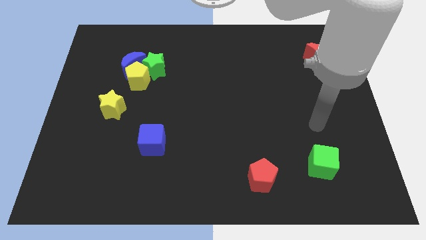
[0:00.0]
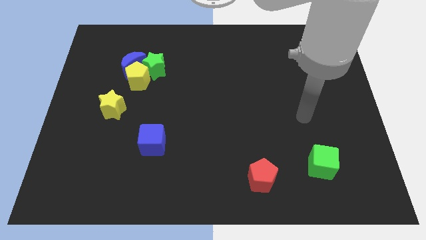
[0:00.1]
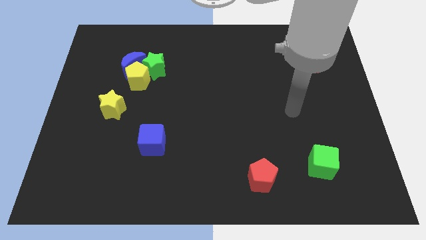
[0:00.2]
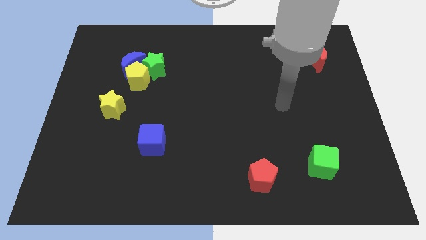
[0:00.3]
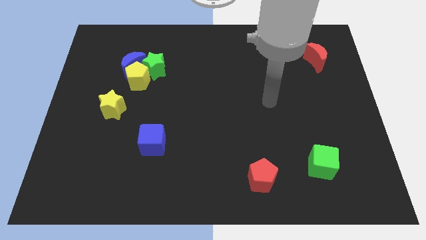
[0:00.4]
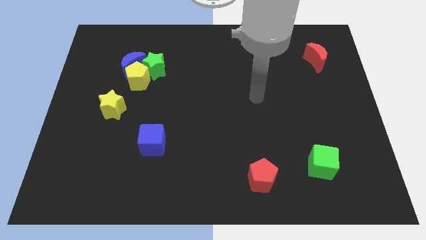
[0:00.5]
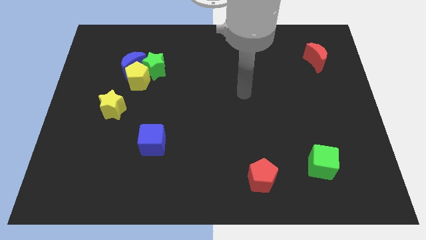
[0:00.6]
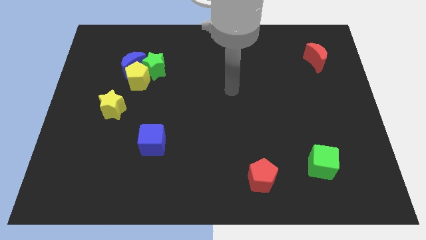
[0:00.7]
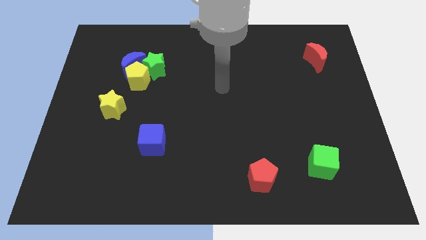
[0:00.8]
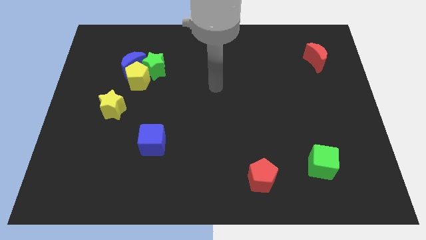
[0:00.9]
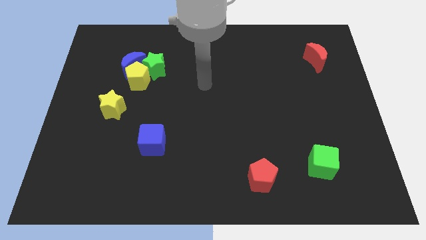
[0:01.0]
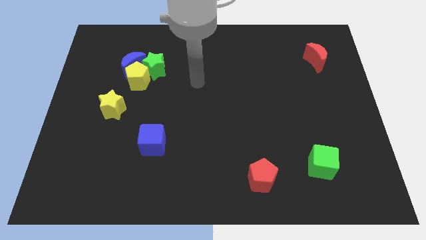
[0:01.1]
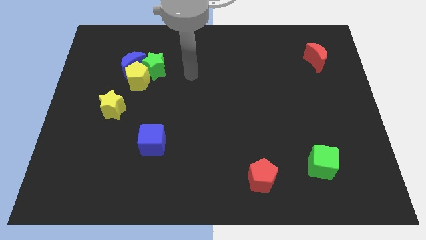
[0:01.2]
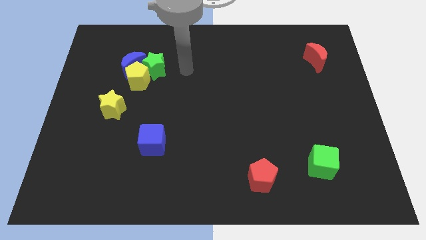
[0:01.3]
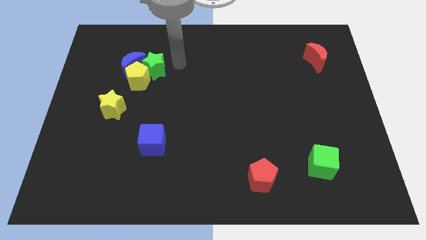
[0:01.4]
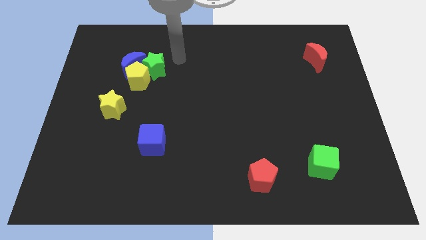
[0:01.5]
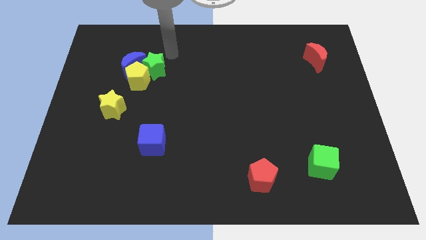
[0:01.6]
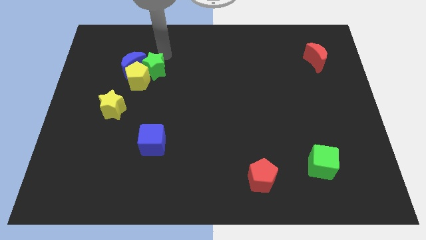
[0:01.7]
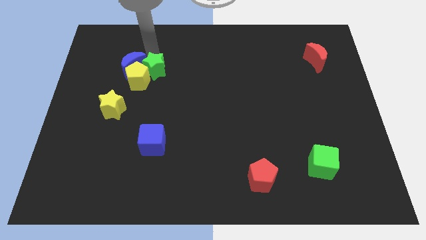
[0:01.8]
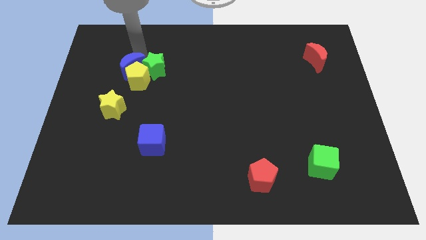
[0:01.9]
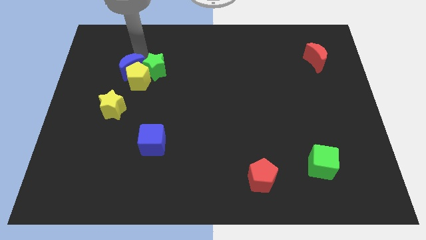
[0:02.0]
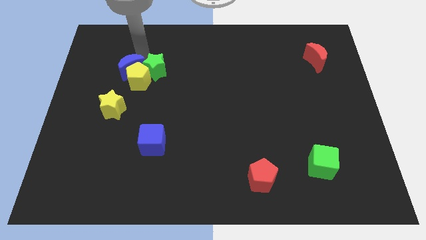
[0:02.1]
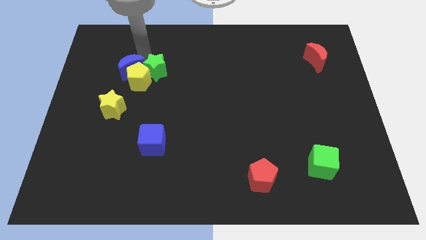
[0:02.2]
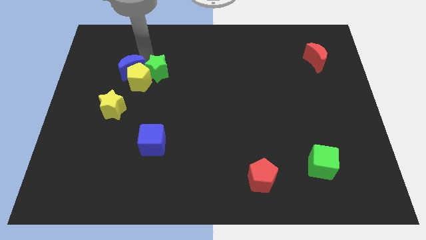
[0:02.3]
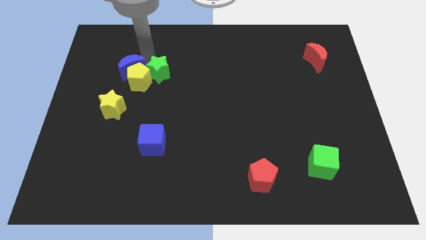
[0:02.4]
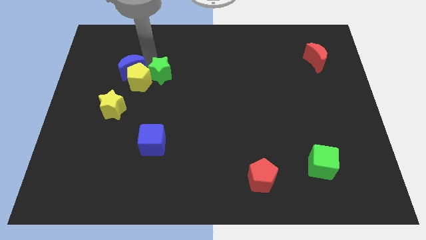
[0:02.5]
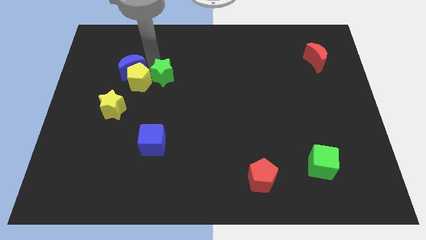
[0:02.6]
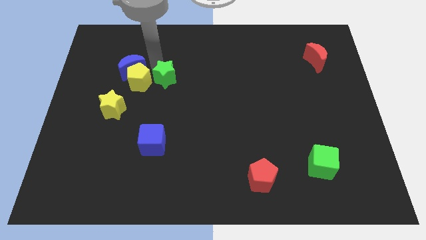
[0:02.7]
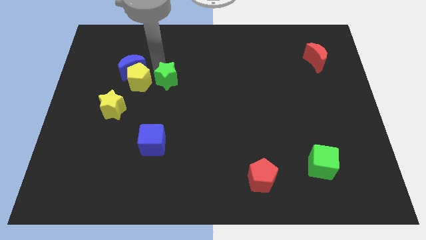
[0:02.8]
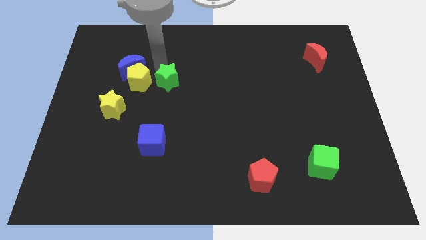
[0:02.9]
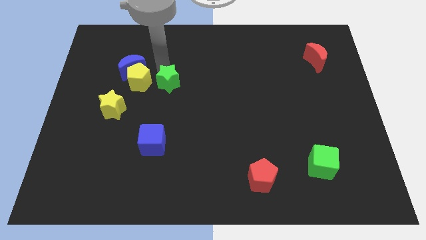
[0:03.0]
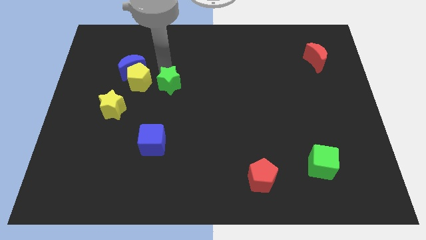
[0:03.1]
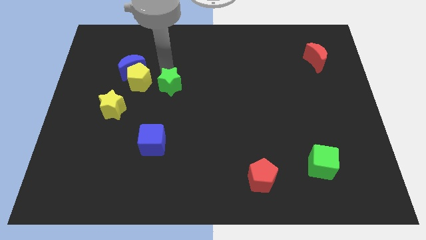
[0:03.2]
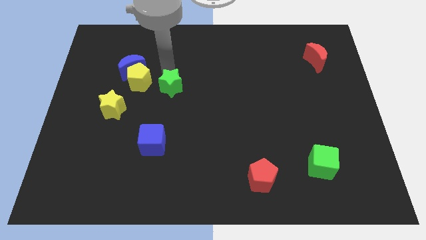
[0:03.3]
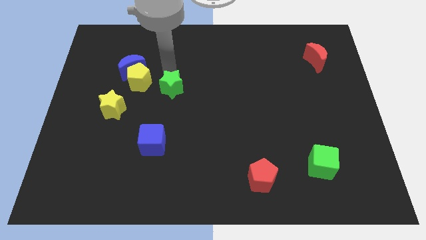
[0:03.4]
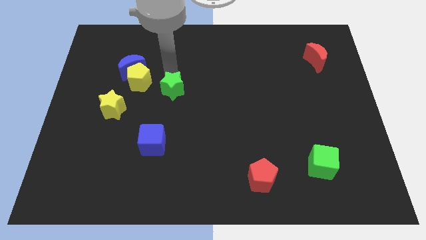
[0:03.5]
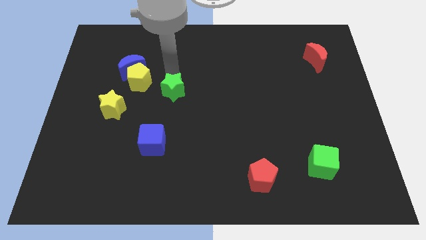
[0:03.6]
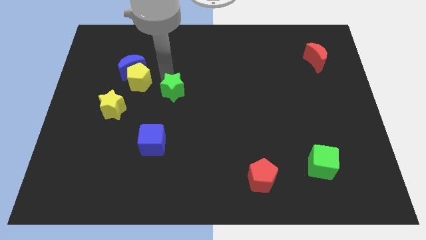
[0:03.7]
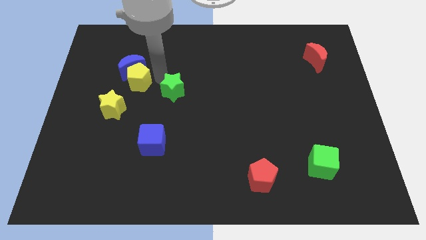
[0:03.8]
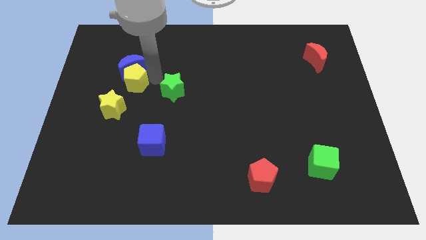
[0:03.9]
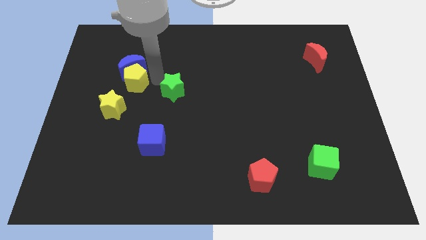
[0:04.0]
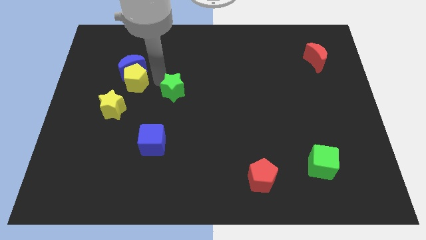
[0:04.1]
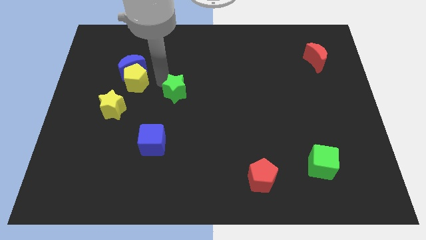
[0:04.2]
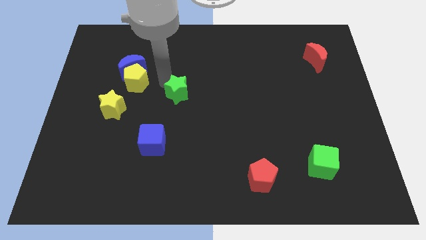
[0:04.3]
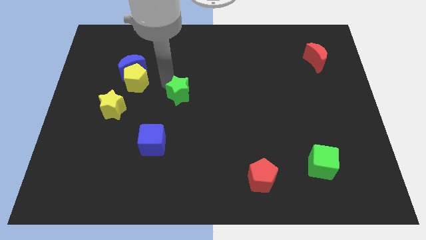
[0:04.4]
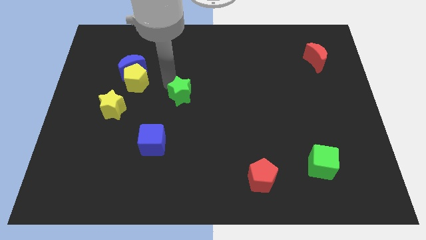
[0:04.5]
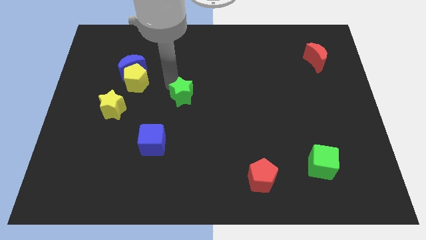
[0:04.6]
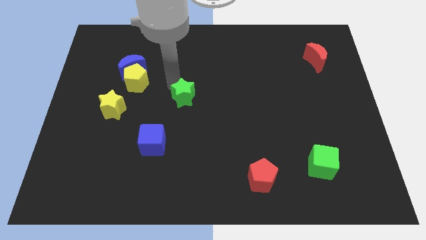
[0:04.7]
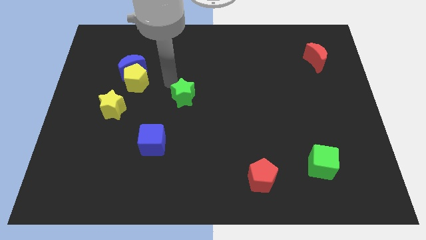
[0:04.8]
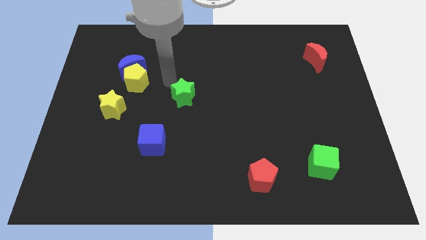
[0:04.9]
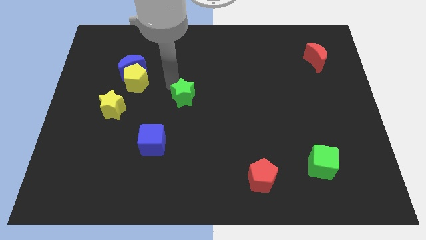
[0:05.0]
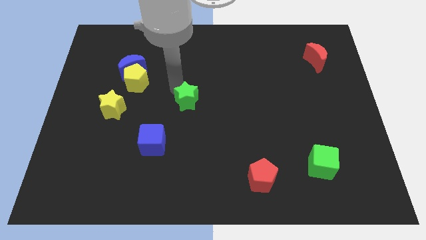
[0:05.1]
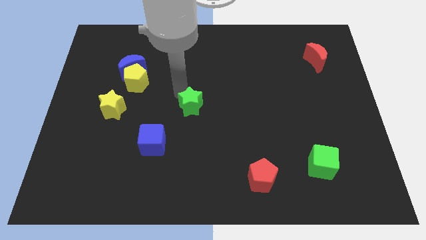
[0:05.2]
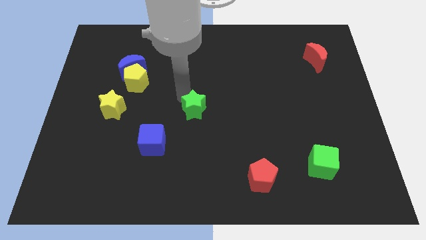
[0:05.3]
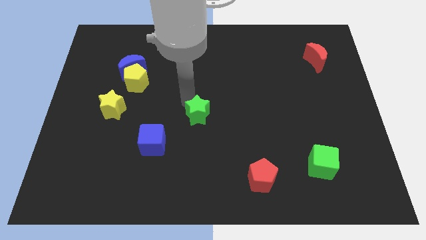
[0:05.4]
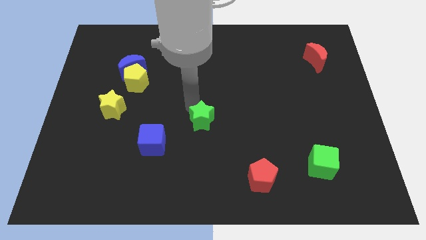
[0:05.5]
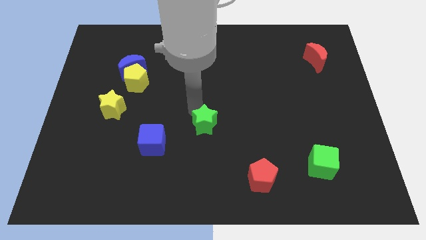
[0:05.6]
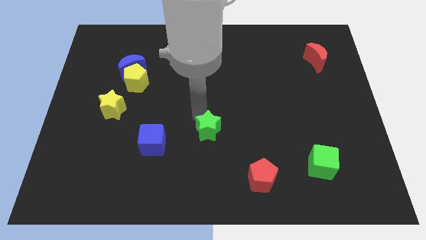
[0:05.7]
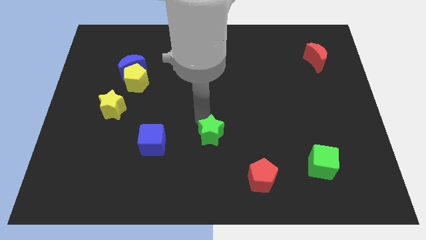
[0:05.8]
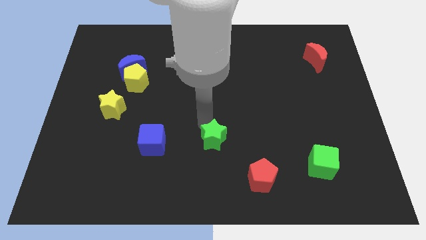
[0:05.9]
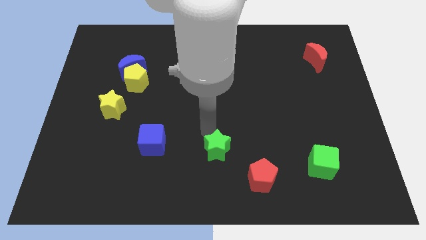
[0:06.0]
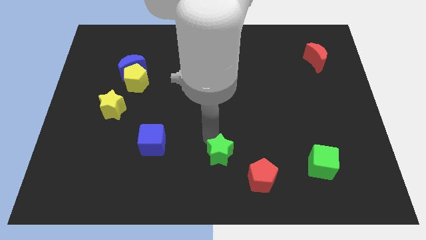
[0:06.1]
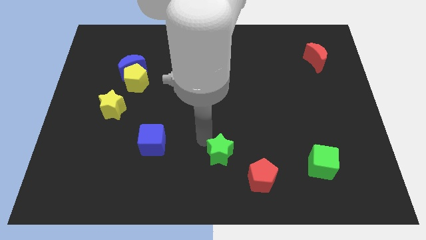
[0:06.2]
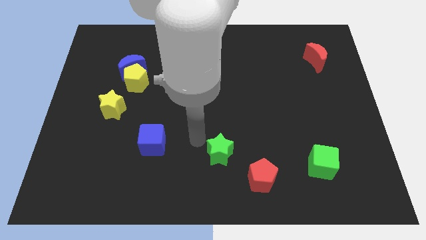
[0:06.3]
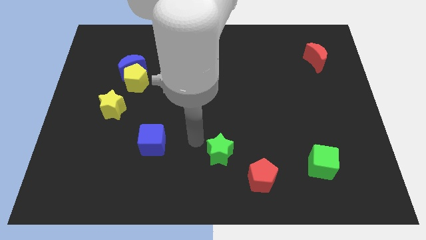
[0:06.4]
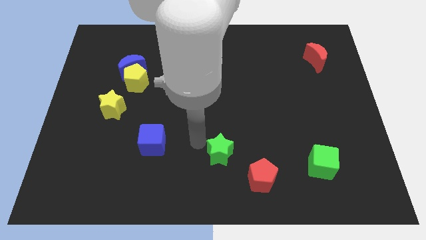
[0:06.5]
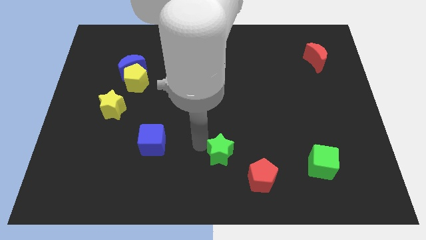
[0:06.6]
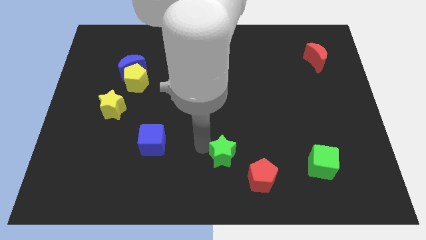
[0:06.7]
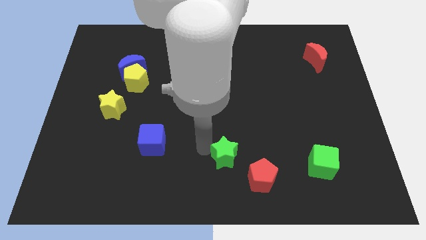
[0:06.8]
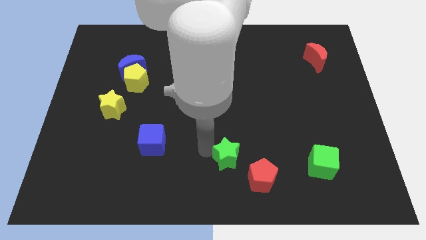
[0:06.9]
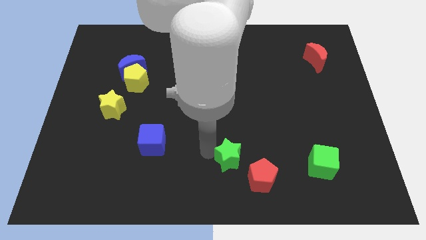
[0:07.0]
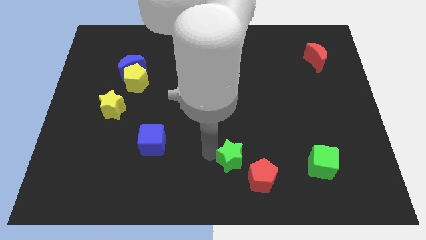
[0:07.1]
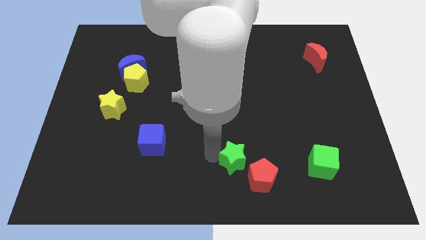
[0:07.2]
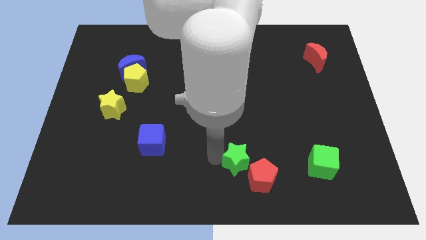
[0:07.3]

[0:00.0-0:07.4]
put the green star to the red pentagon
